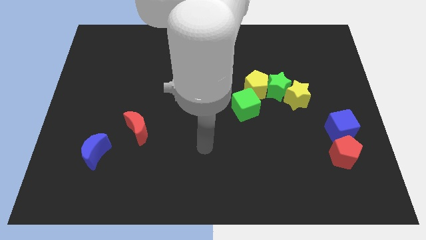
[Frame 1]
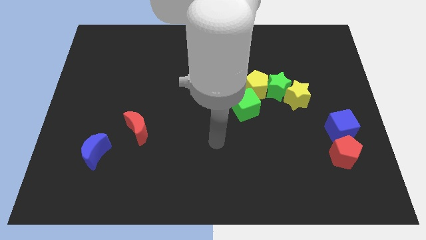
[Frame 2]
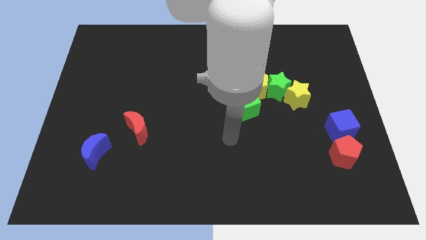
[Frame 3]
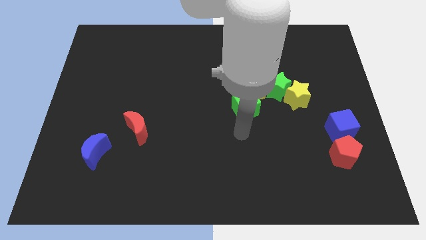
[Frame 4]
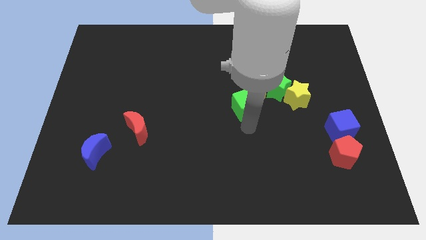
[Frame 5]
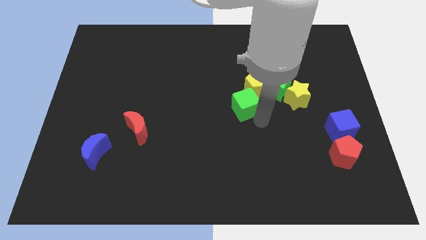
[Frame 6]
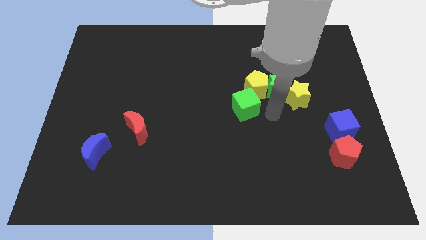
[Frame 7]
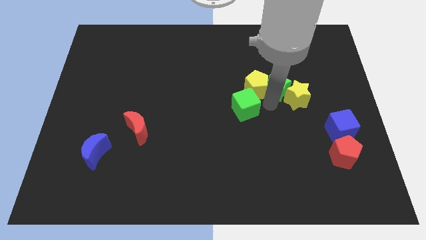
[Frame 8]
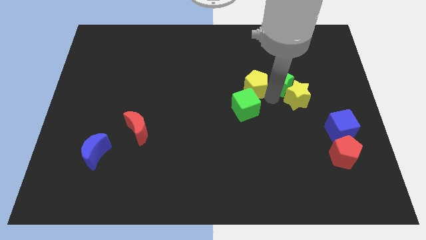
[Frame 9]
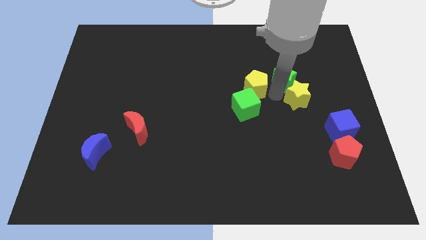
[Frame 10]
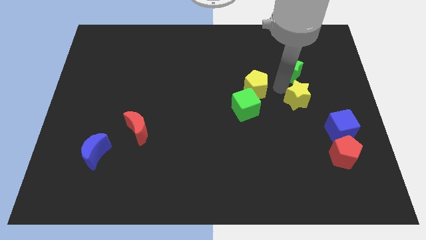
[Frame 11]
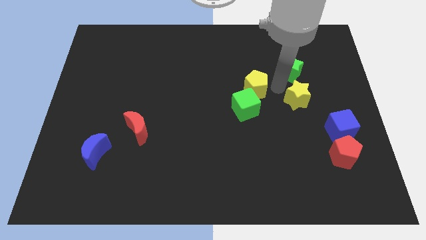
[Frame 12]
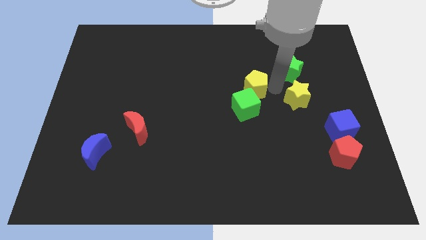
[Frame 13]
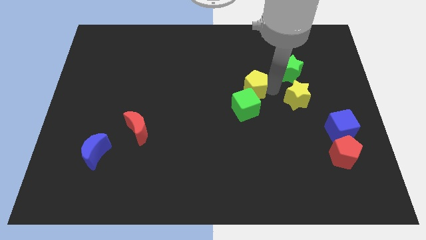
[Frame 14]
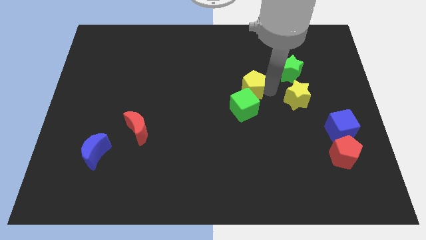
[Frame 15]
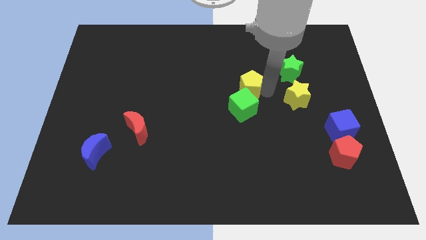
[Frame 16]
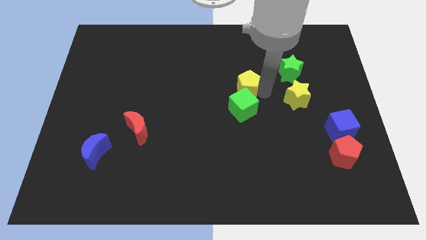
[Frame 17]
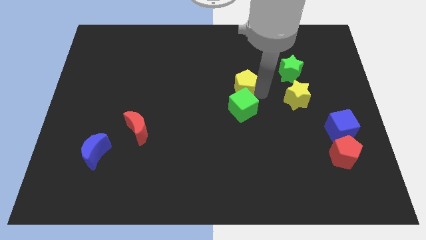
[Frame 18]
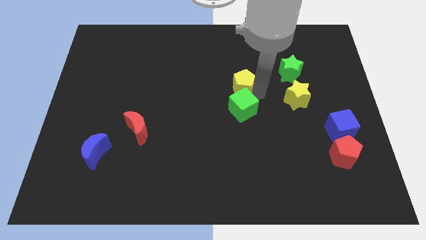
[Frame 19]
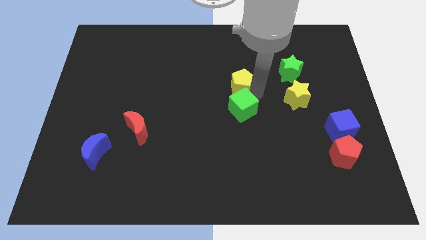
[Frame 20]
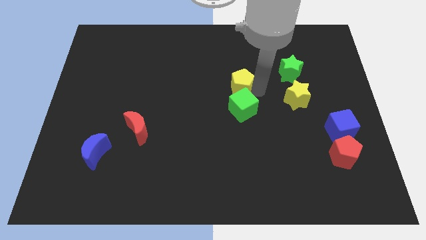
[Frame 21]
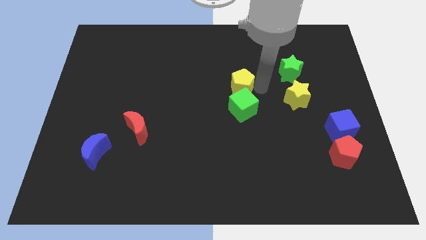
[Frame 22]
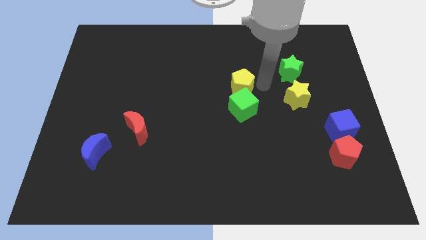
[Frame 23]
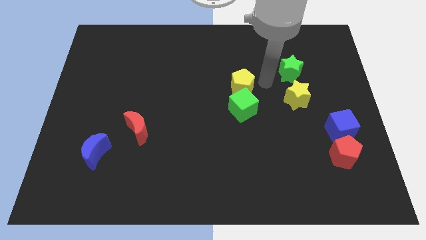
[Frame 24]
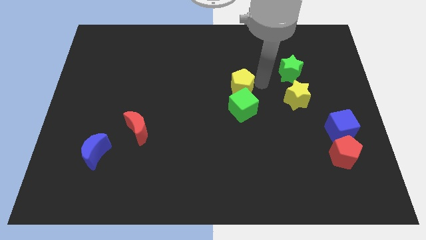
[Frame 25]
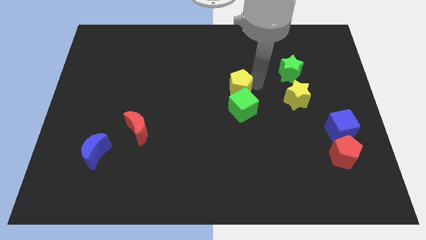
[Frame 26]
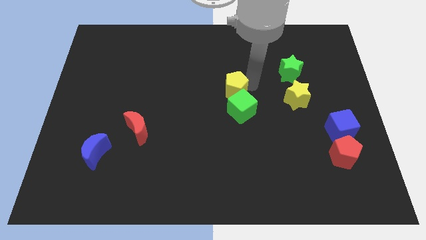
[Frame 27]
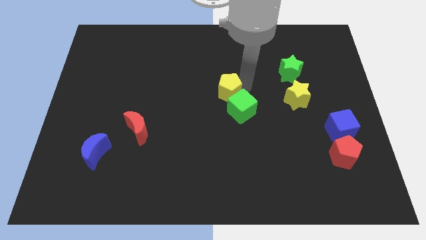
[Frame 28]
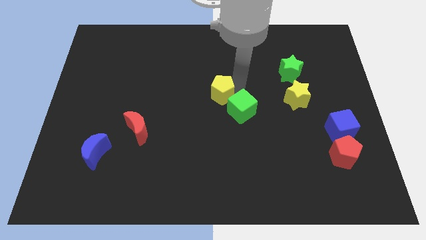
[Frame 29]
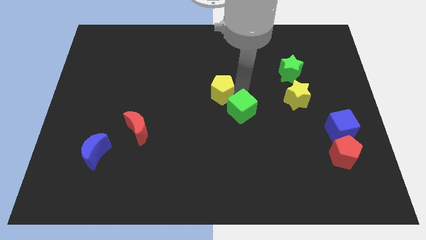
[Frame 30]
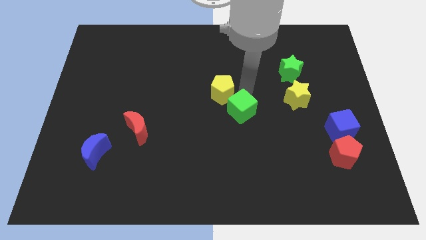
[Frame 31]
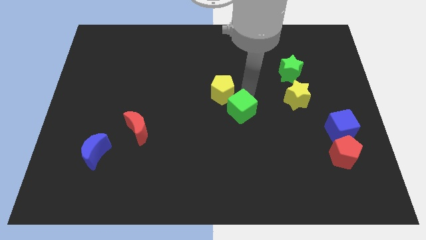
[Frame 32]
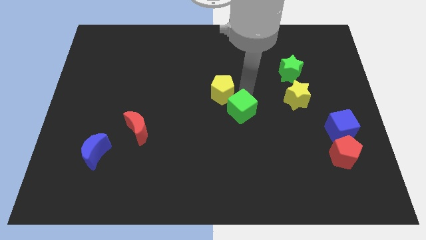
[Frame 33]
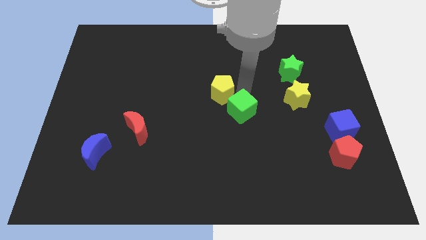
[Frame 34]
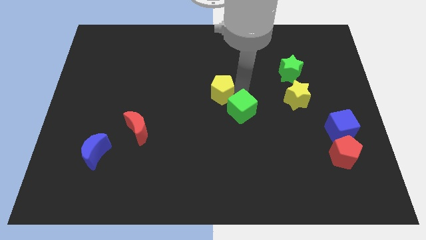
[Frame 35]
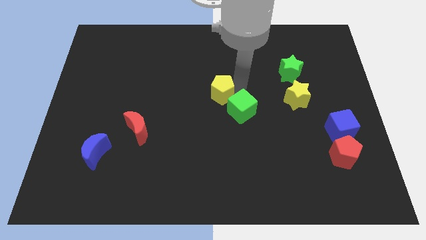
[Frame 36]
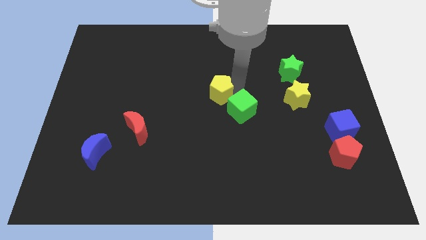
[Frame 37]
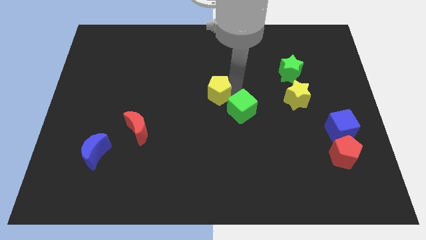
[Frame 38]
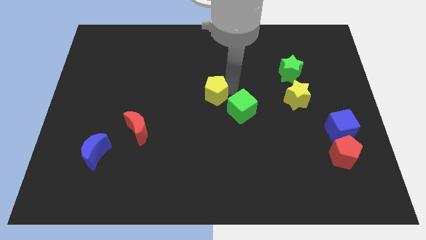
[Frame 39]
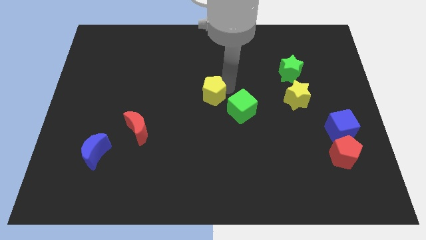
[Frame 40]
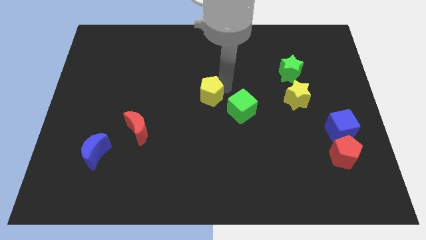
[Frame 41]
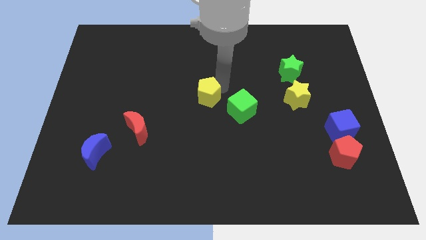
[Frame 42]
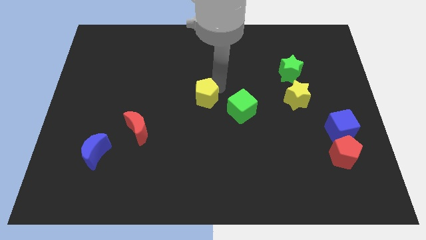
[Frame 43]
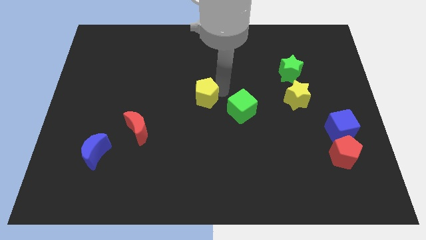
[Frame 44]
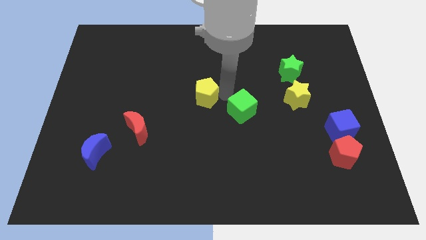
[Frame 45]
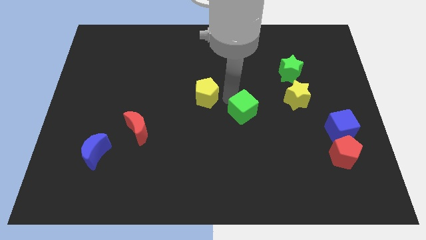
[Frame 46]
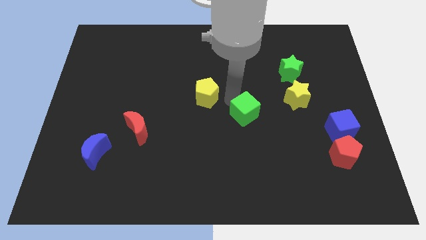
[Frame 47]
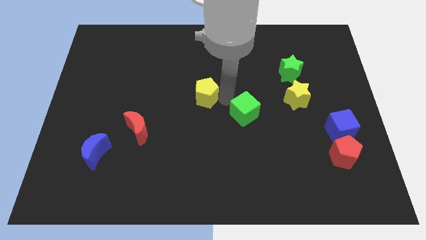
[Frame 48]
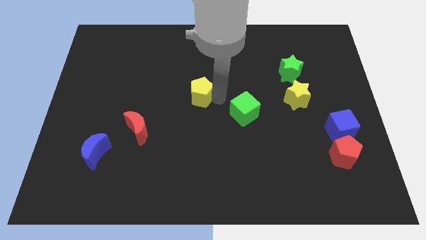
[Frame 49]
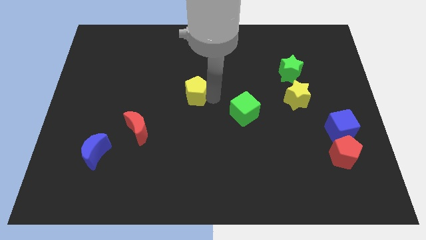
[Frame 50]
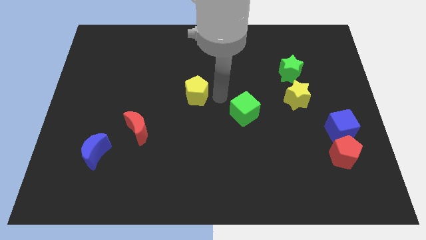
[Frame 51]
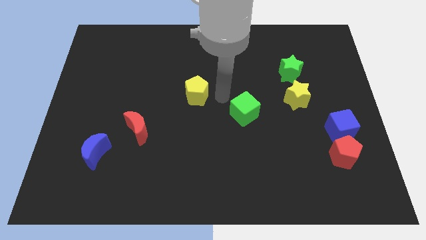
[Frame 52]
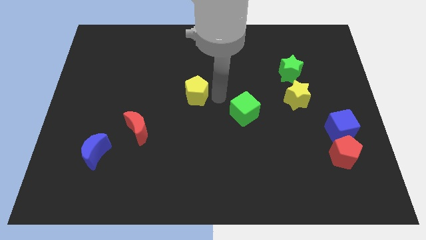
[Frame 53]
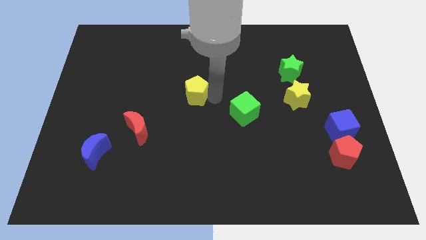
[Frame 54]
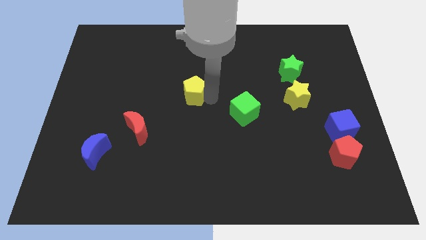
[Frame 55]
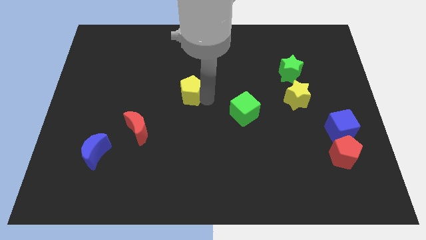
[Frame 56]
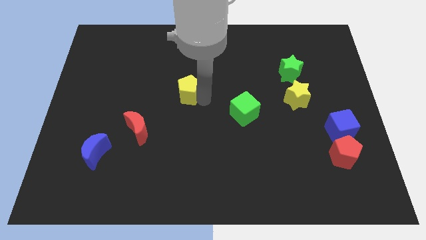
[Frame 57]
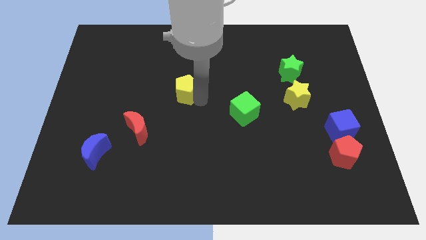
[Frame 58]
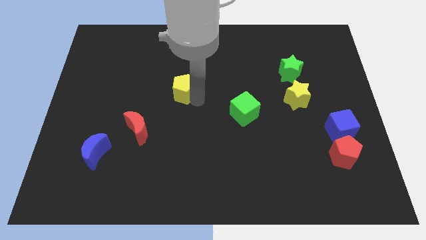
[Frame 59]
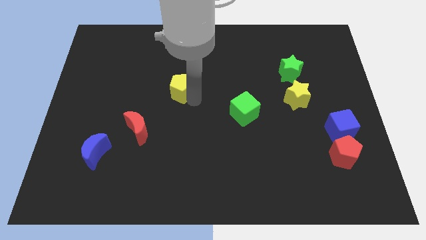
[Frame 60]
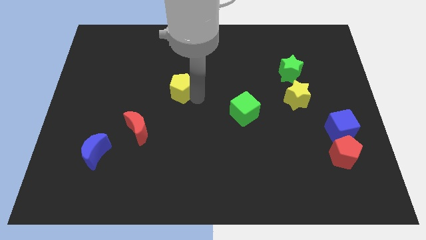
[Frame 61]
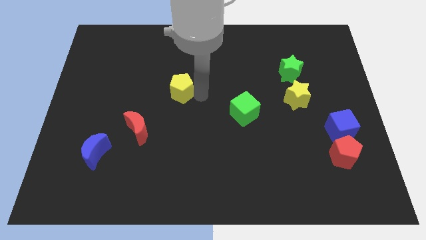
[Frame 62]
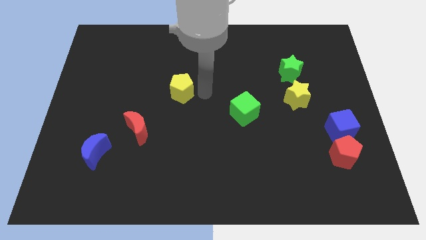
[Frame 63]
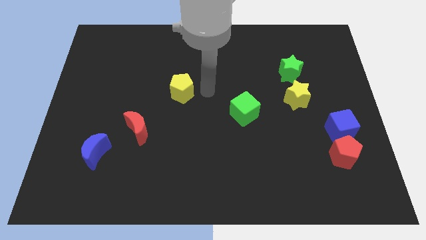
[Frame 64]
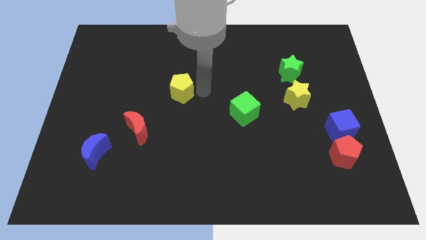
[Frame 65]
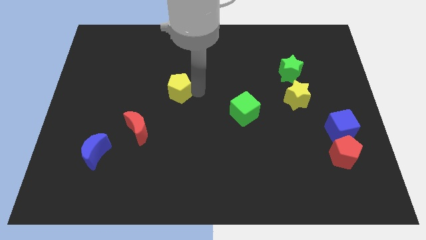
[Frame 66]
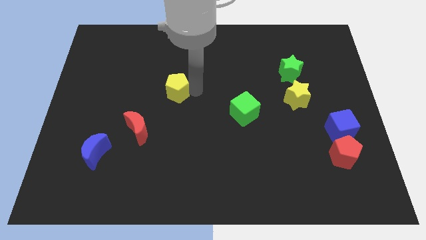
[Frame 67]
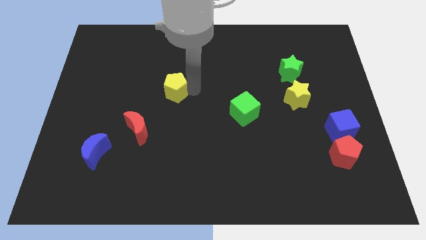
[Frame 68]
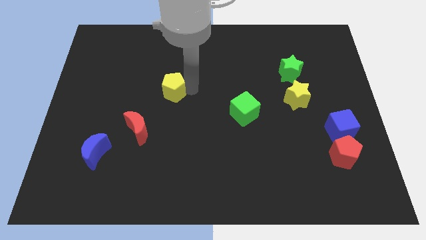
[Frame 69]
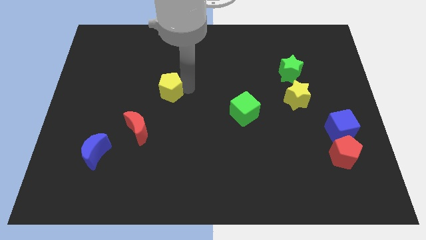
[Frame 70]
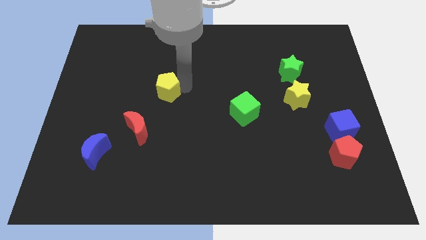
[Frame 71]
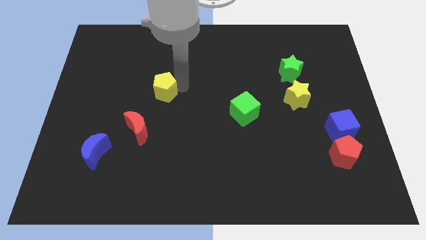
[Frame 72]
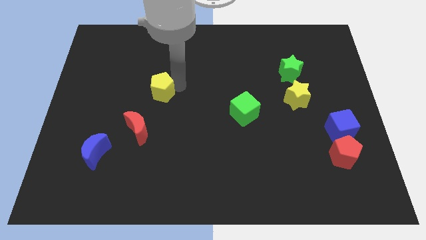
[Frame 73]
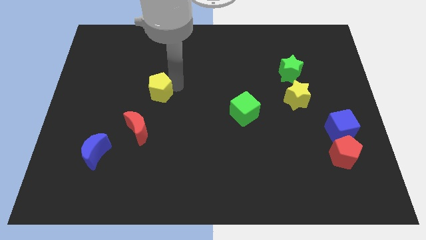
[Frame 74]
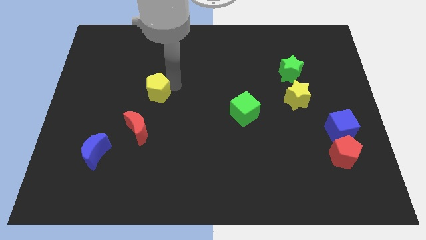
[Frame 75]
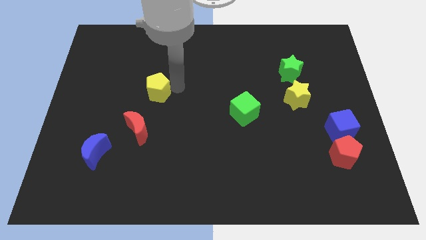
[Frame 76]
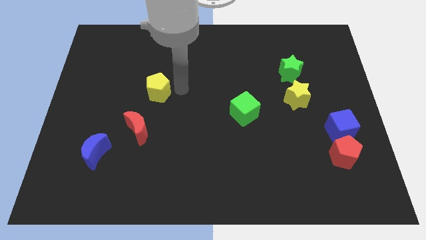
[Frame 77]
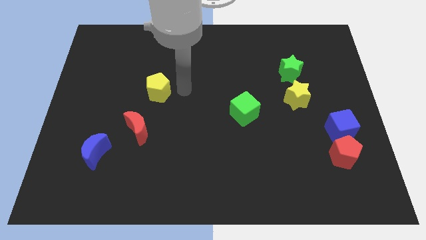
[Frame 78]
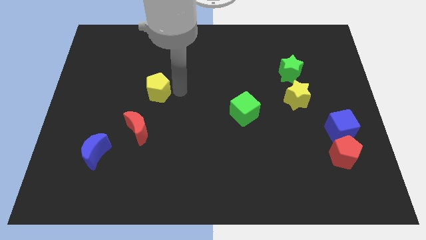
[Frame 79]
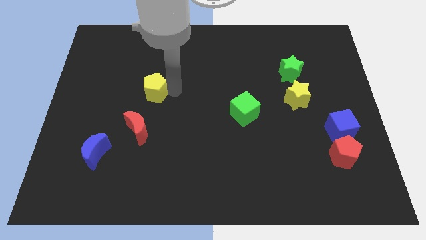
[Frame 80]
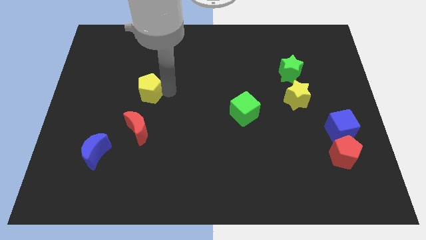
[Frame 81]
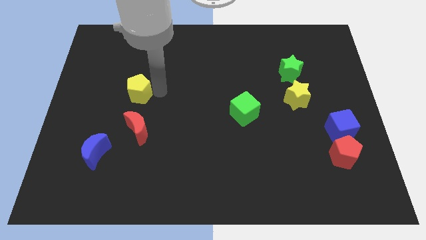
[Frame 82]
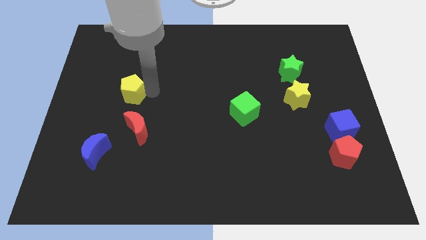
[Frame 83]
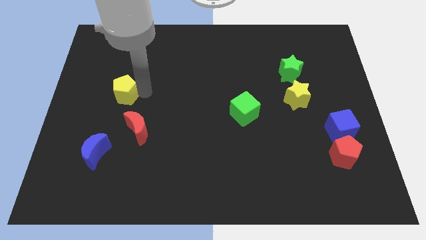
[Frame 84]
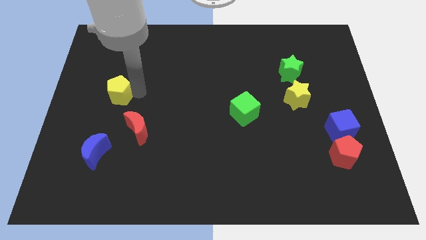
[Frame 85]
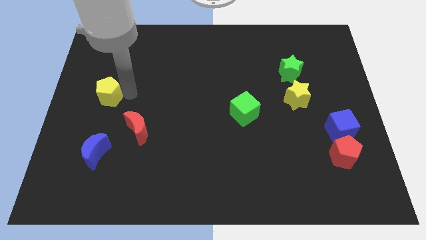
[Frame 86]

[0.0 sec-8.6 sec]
move the yellow pentagon to the left side
